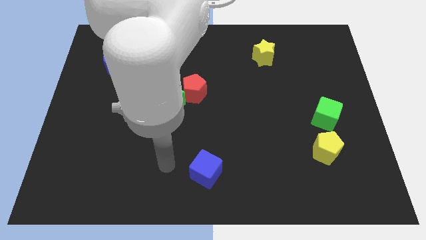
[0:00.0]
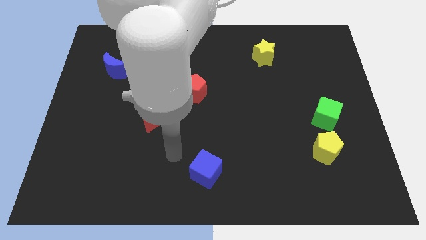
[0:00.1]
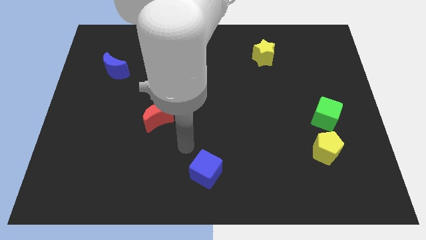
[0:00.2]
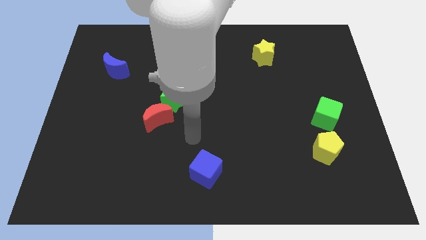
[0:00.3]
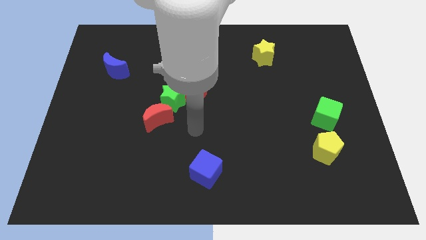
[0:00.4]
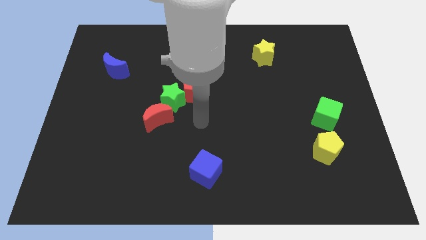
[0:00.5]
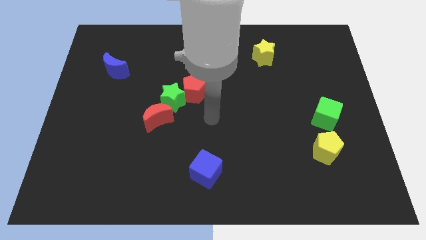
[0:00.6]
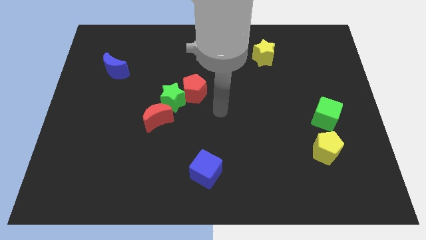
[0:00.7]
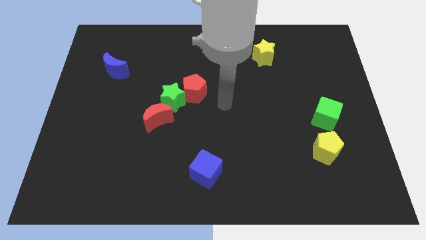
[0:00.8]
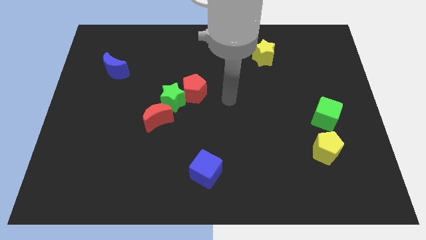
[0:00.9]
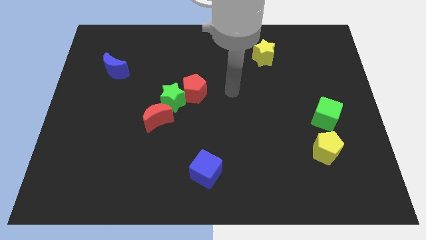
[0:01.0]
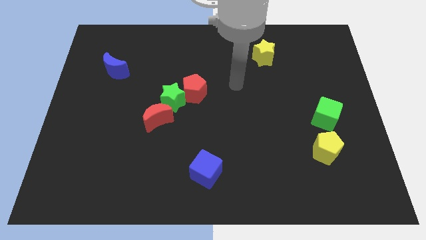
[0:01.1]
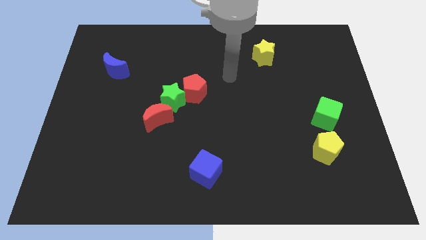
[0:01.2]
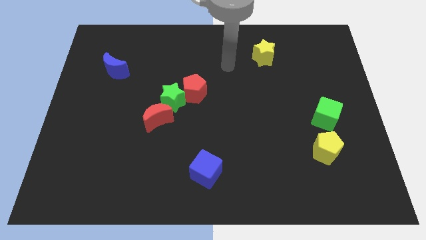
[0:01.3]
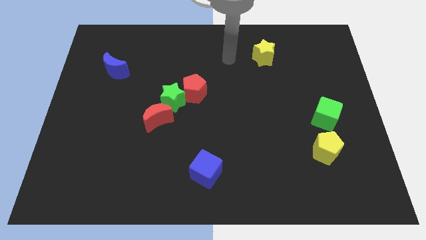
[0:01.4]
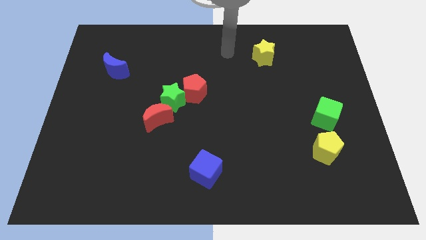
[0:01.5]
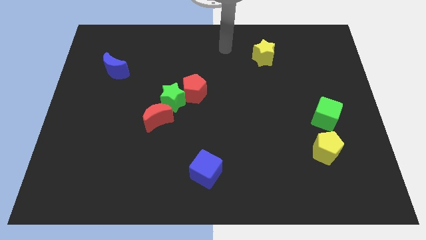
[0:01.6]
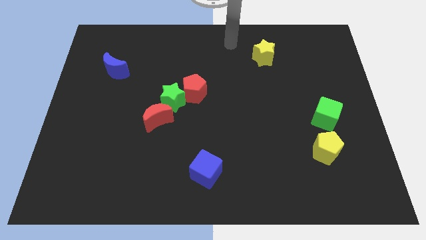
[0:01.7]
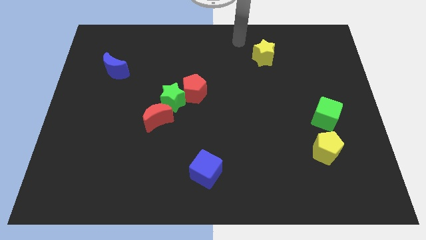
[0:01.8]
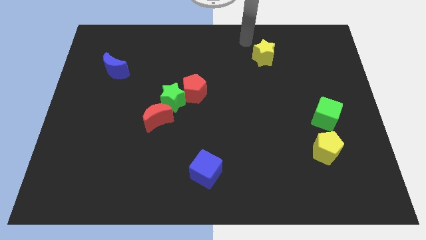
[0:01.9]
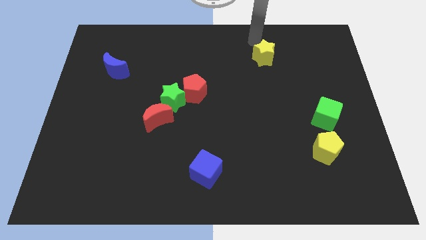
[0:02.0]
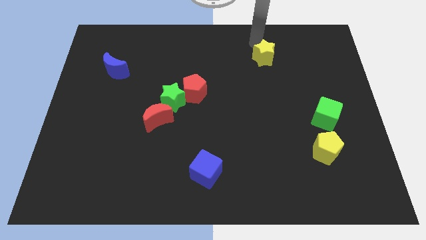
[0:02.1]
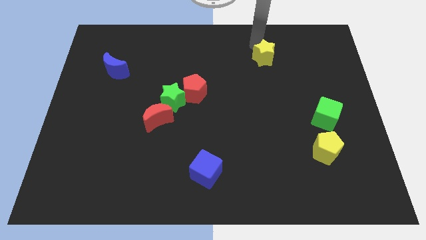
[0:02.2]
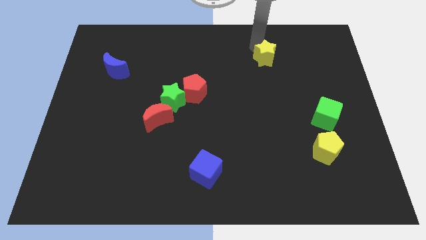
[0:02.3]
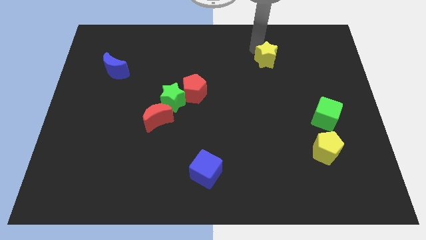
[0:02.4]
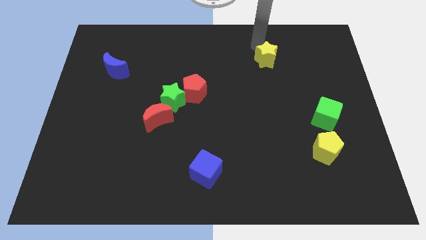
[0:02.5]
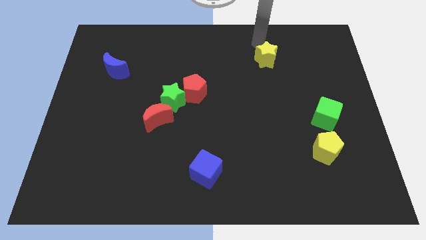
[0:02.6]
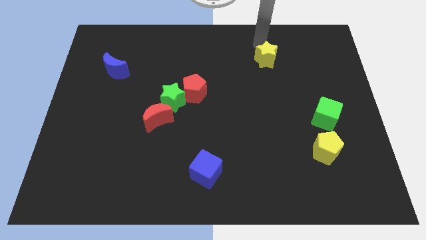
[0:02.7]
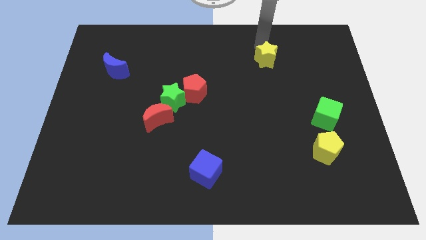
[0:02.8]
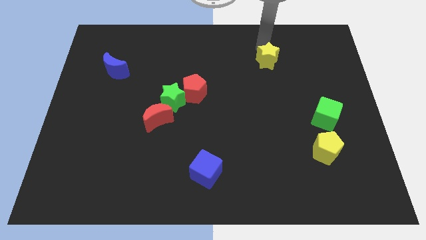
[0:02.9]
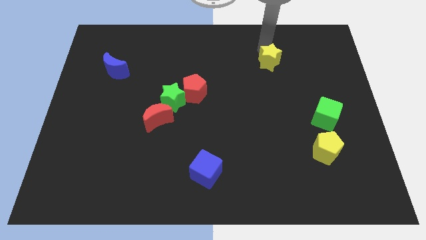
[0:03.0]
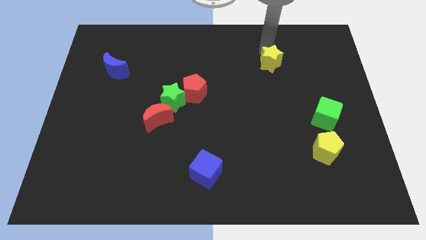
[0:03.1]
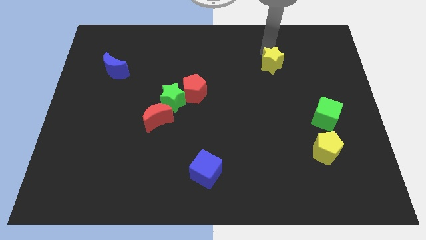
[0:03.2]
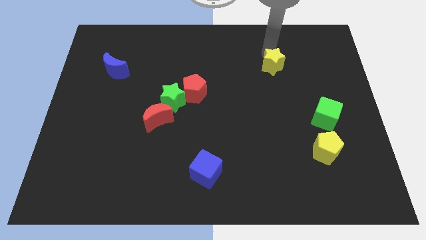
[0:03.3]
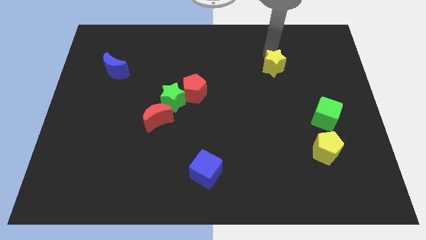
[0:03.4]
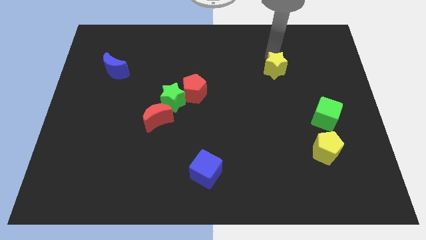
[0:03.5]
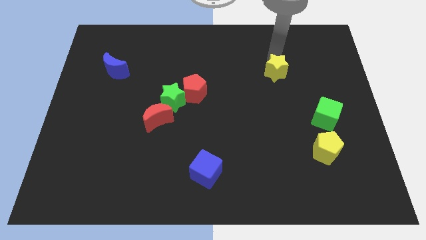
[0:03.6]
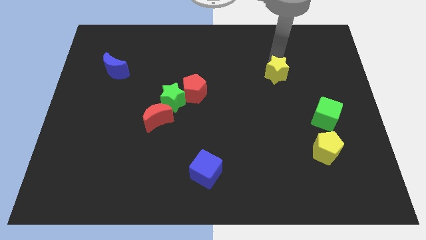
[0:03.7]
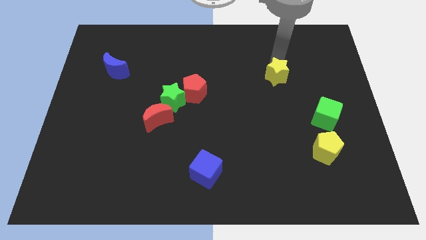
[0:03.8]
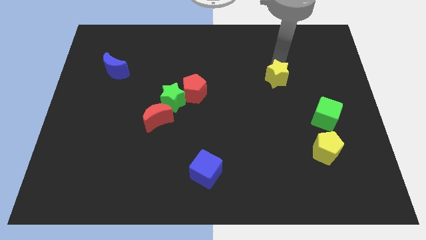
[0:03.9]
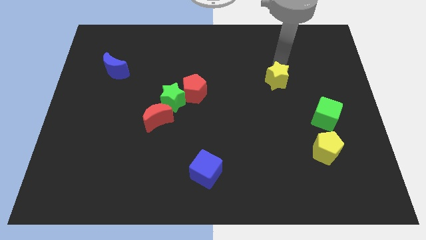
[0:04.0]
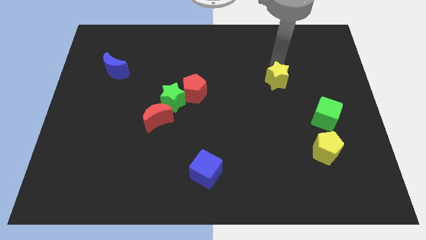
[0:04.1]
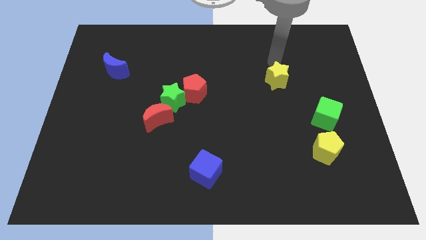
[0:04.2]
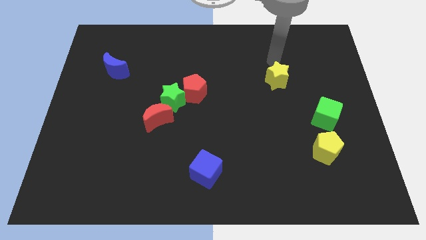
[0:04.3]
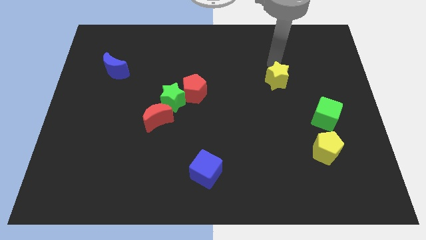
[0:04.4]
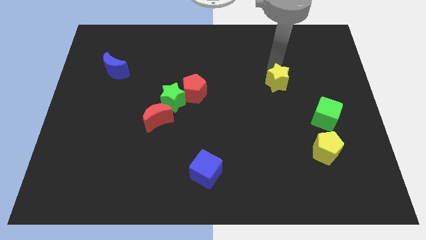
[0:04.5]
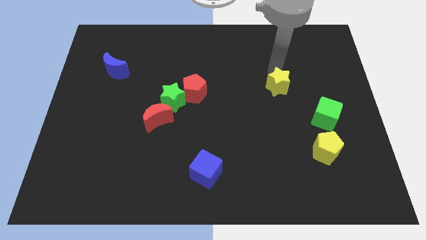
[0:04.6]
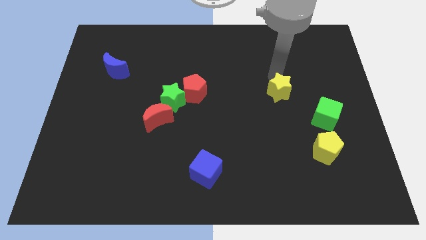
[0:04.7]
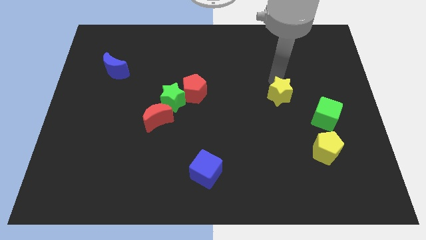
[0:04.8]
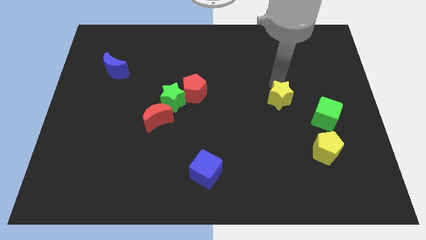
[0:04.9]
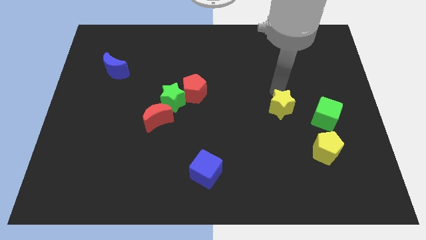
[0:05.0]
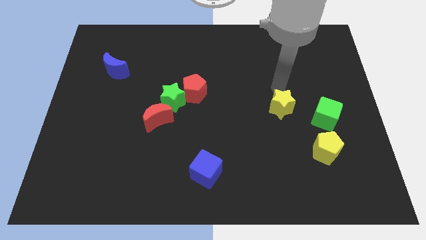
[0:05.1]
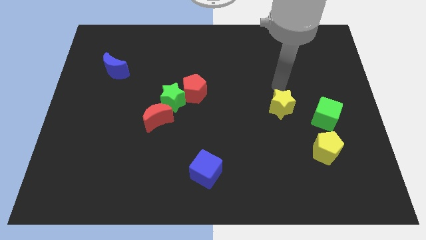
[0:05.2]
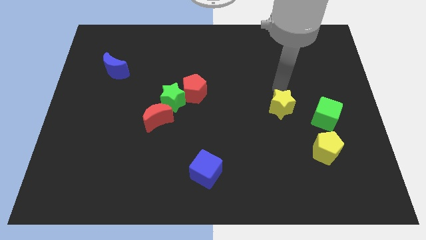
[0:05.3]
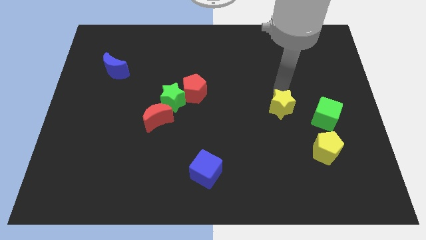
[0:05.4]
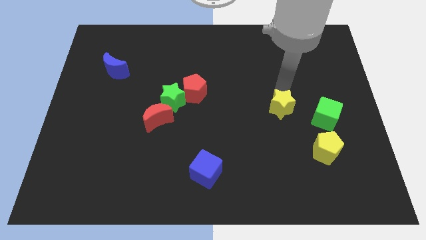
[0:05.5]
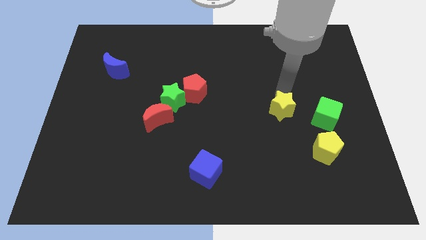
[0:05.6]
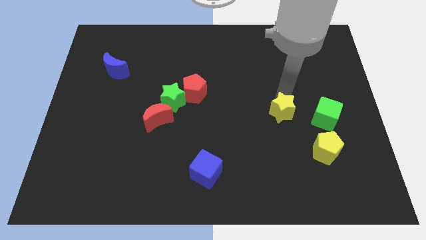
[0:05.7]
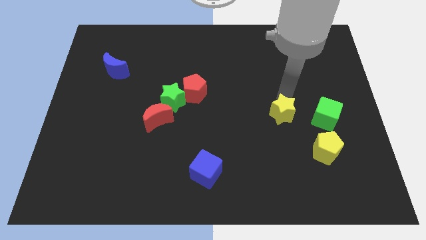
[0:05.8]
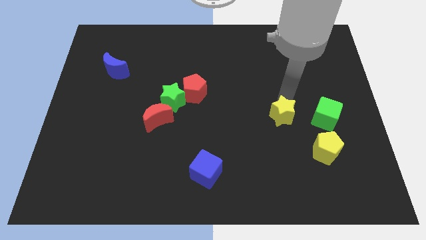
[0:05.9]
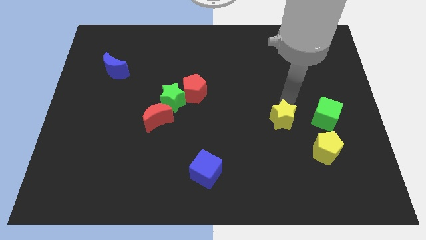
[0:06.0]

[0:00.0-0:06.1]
move the yellow star down

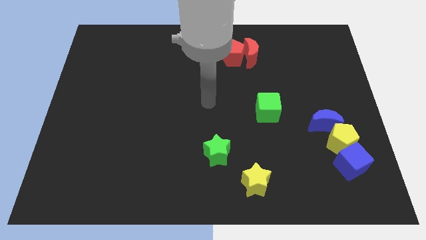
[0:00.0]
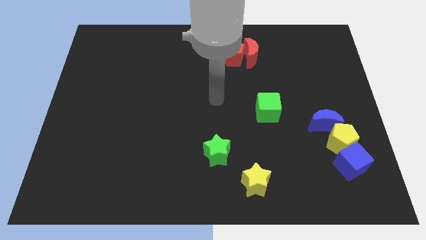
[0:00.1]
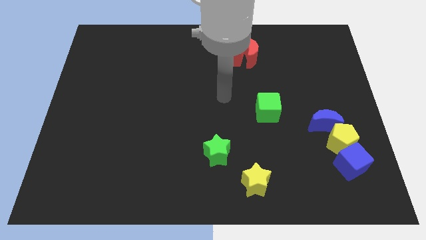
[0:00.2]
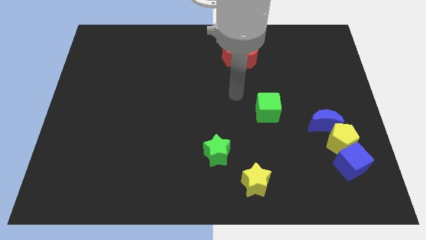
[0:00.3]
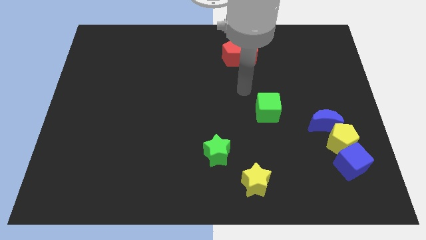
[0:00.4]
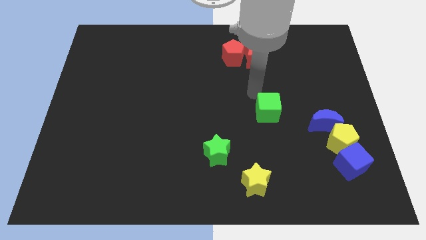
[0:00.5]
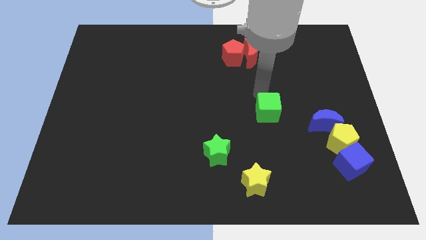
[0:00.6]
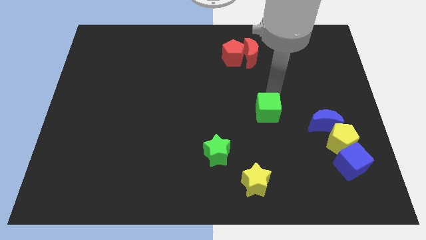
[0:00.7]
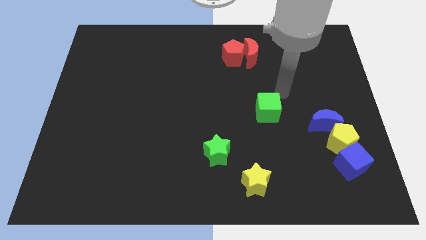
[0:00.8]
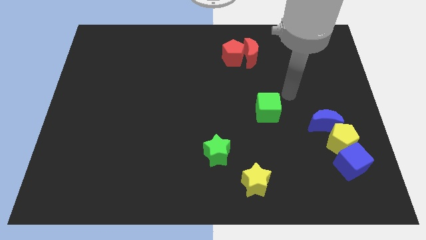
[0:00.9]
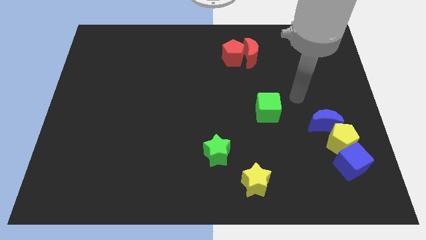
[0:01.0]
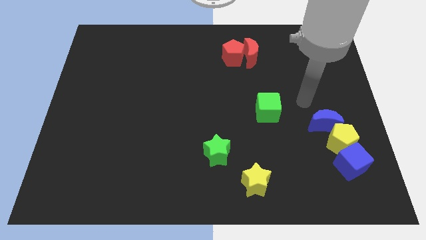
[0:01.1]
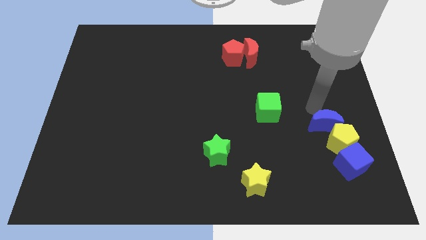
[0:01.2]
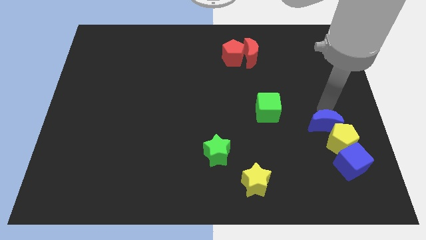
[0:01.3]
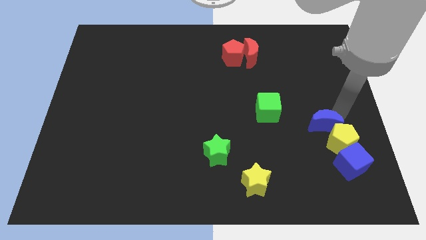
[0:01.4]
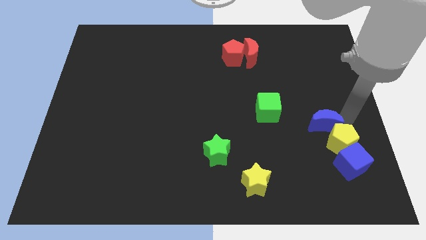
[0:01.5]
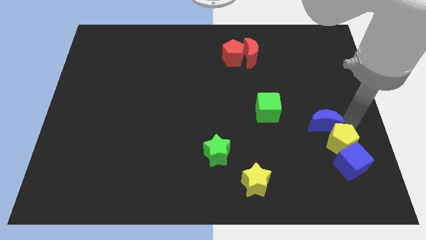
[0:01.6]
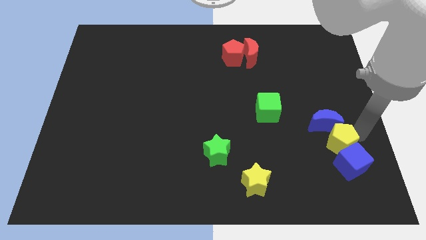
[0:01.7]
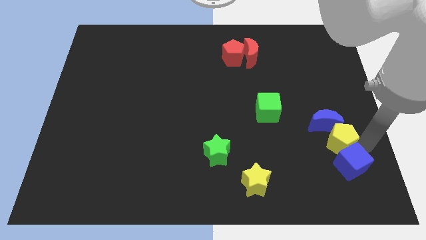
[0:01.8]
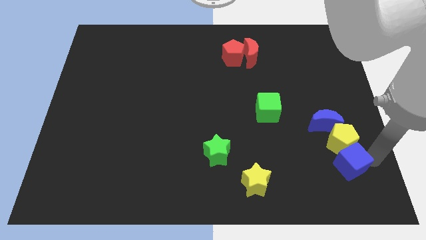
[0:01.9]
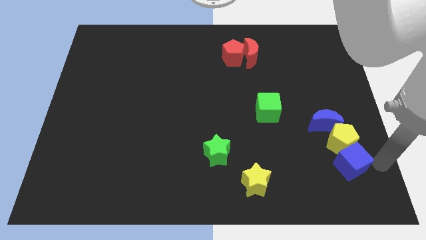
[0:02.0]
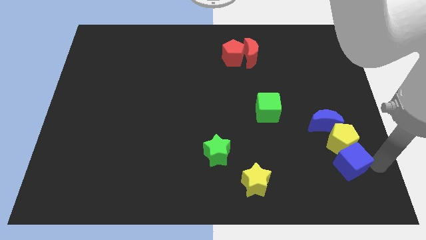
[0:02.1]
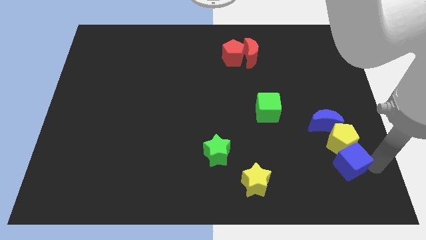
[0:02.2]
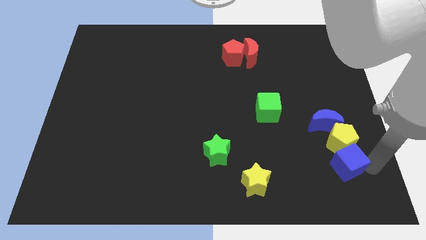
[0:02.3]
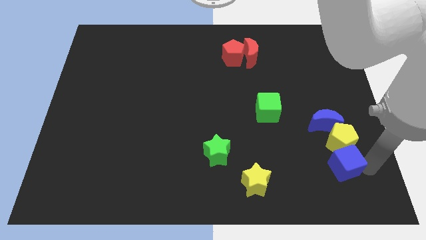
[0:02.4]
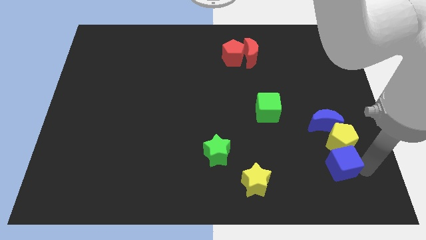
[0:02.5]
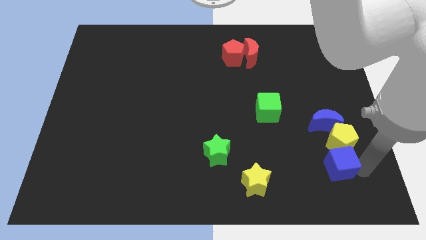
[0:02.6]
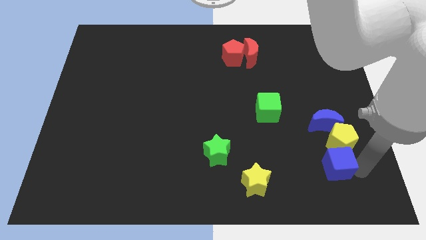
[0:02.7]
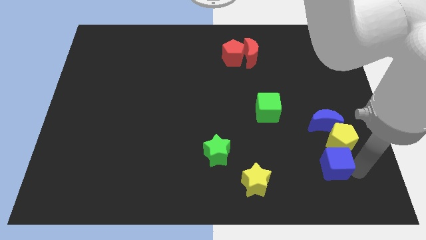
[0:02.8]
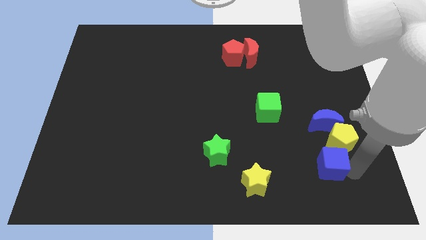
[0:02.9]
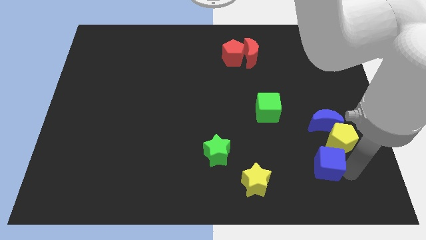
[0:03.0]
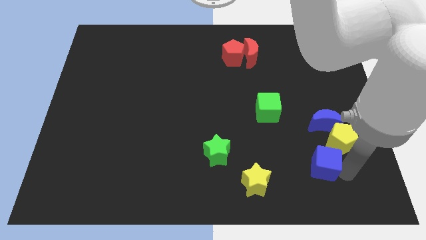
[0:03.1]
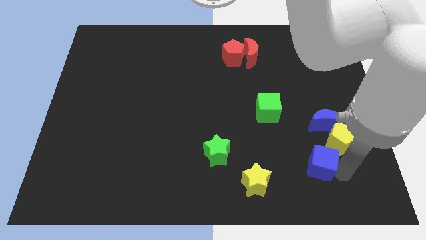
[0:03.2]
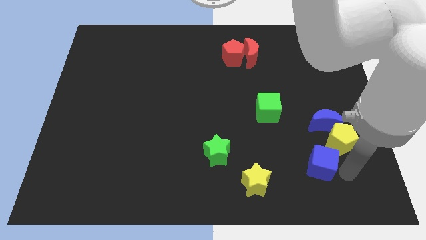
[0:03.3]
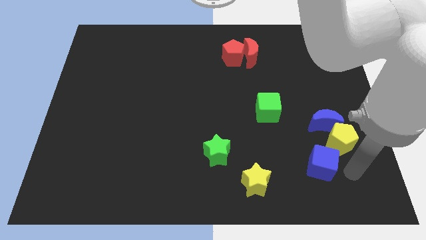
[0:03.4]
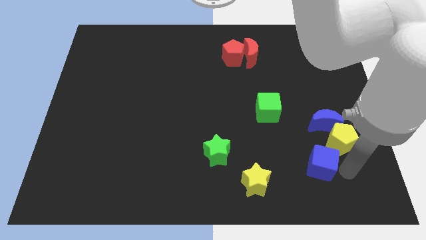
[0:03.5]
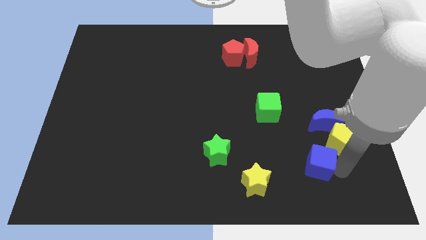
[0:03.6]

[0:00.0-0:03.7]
move the blue cube to the left somewhat
